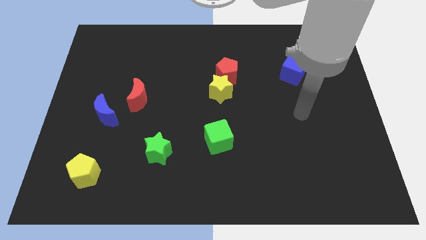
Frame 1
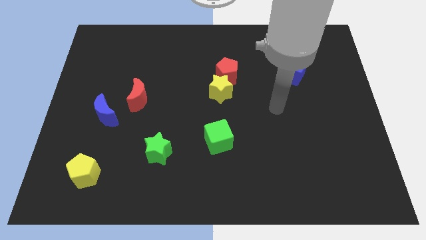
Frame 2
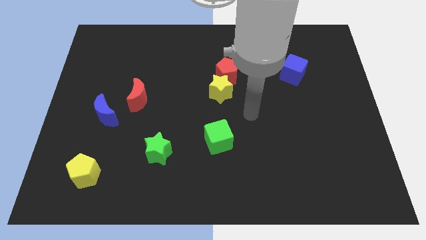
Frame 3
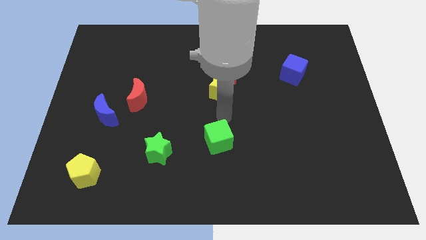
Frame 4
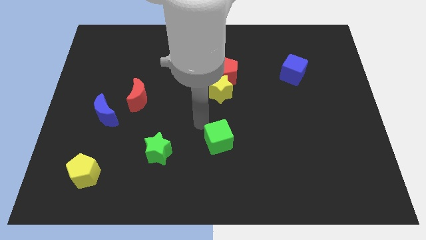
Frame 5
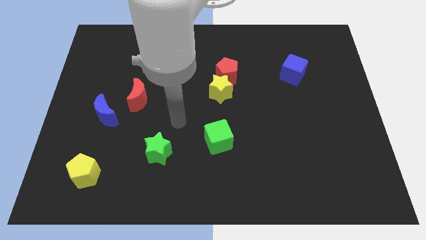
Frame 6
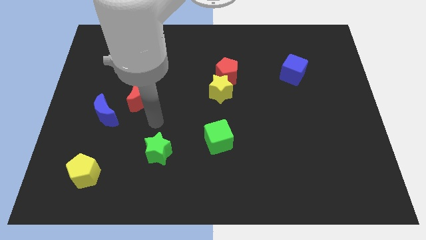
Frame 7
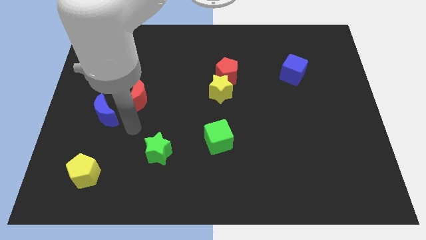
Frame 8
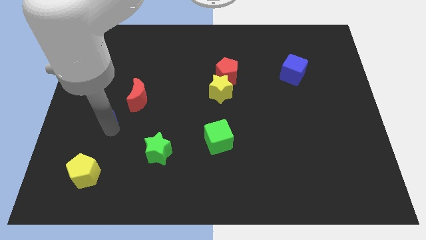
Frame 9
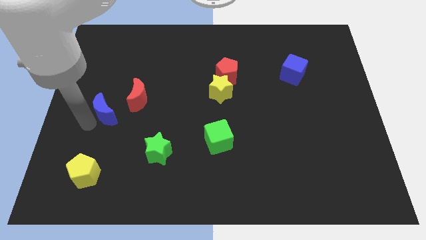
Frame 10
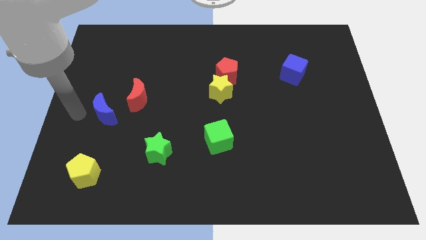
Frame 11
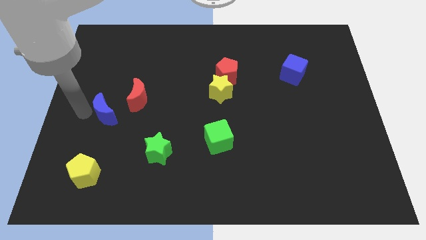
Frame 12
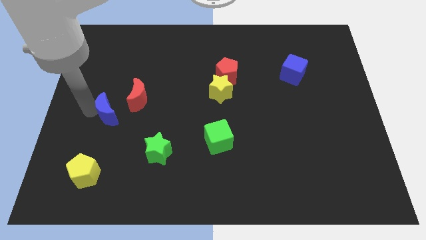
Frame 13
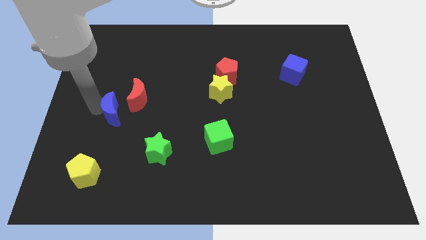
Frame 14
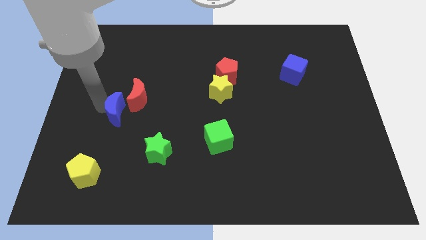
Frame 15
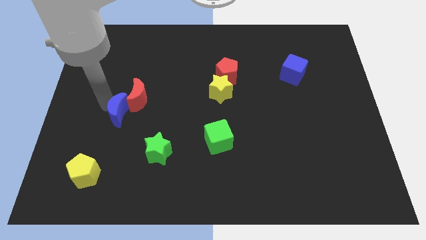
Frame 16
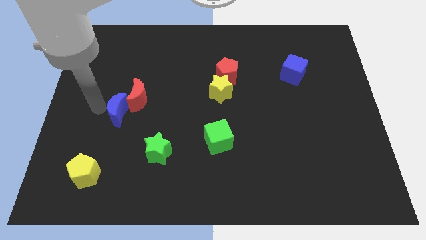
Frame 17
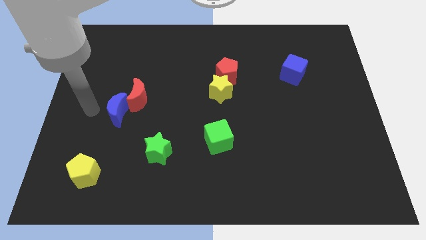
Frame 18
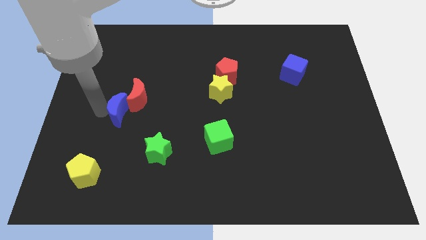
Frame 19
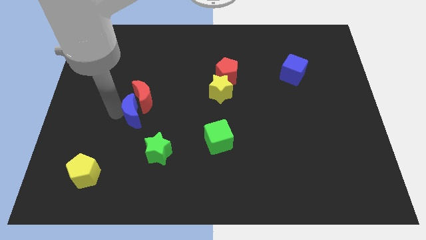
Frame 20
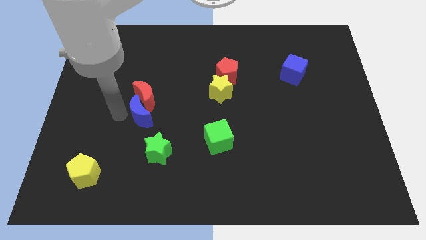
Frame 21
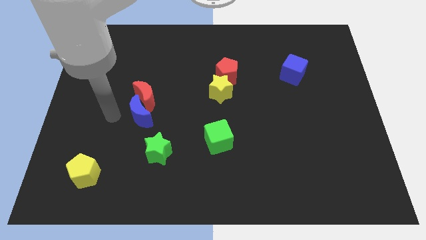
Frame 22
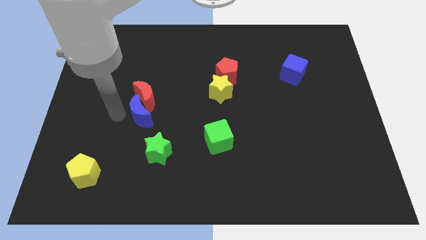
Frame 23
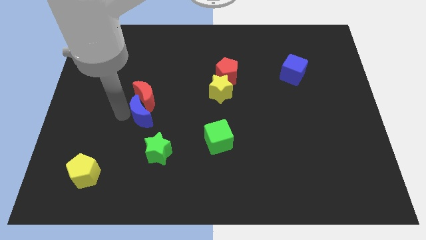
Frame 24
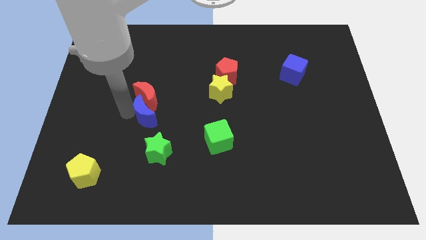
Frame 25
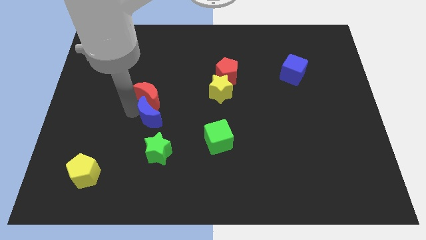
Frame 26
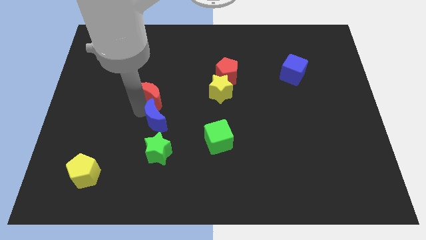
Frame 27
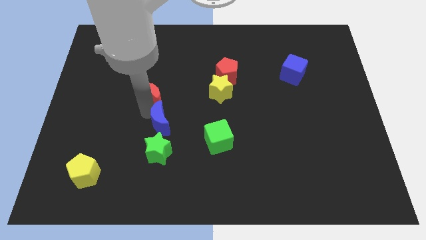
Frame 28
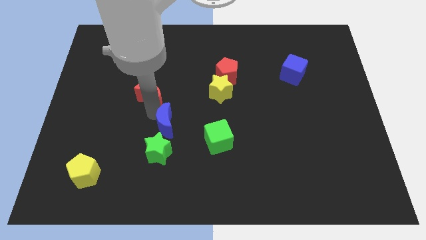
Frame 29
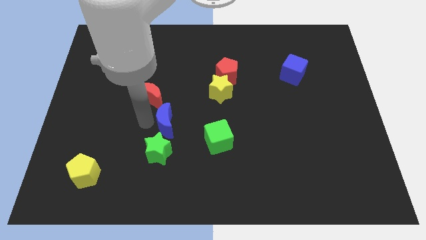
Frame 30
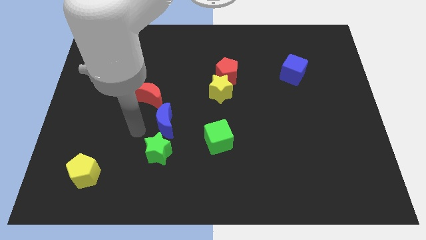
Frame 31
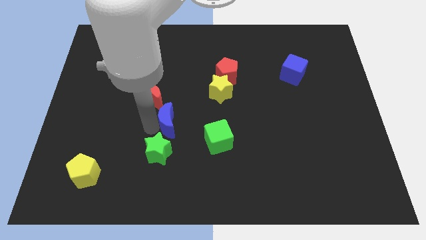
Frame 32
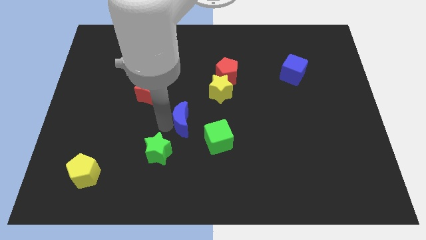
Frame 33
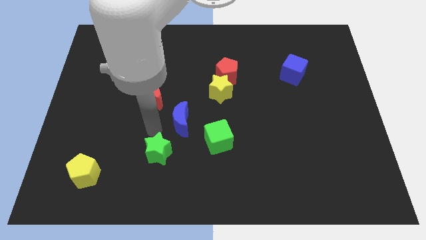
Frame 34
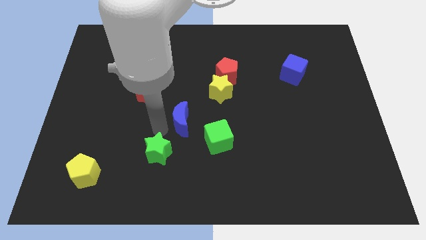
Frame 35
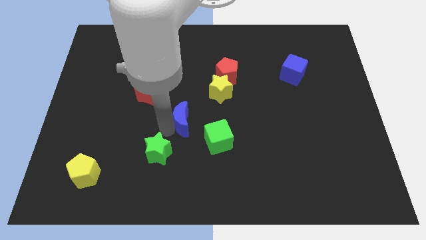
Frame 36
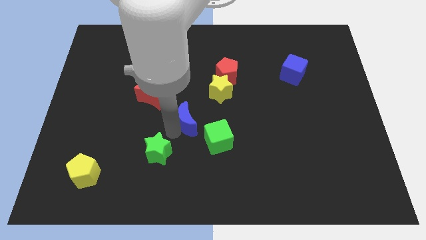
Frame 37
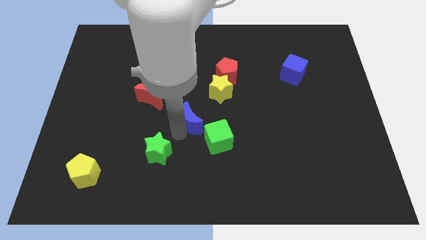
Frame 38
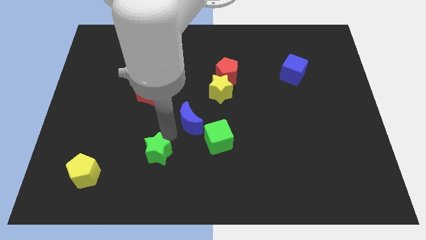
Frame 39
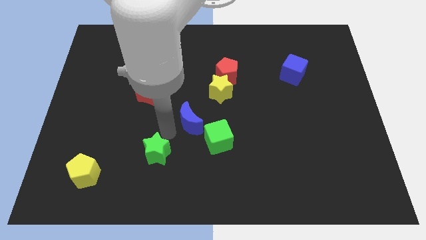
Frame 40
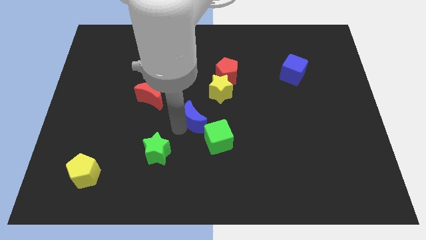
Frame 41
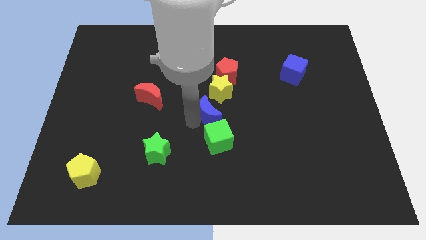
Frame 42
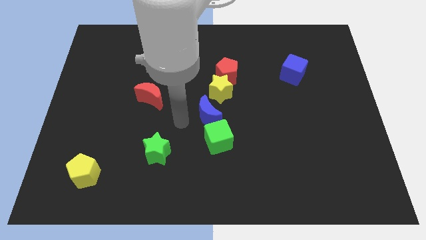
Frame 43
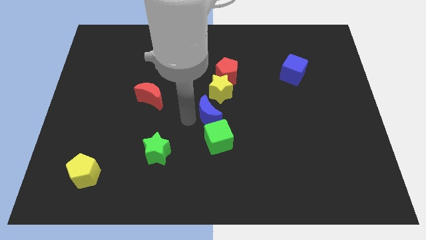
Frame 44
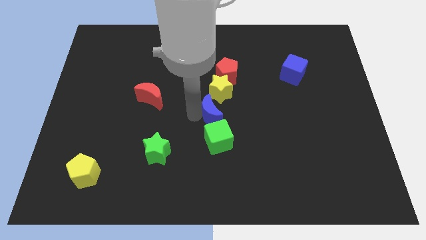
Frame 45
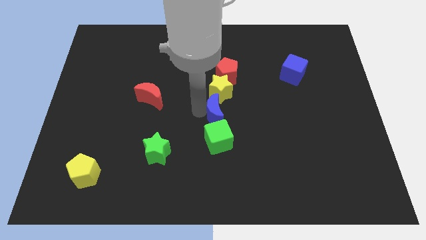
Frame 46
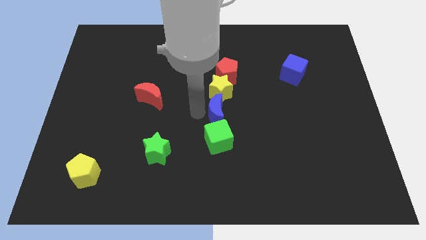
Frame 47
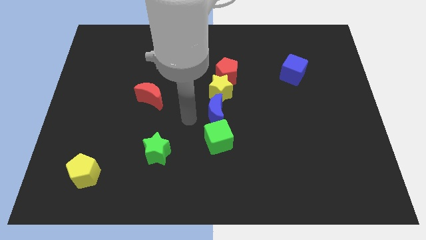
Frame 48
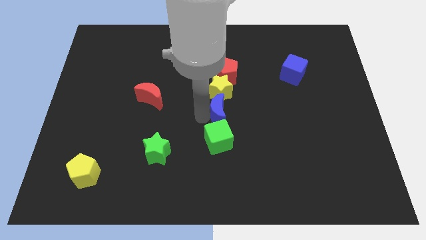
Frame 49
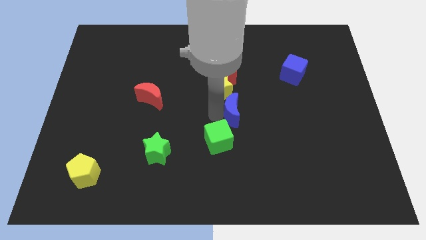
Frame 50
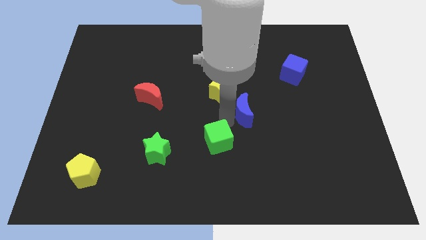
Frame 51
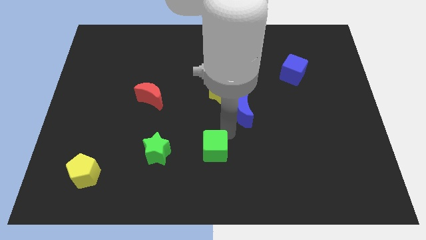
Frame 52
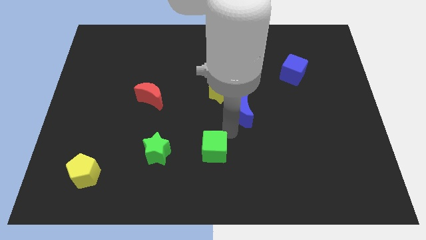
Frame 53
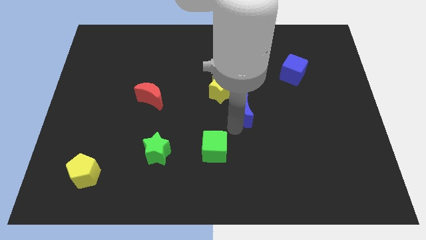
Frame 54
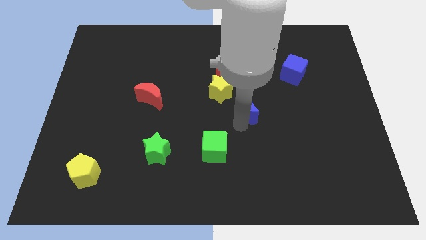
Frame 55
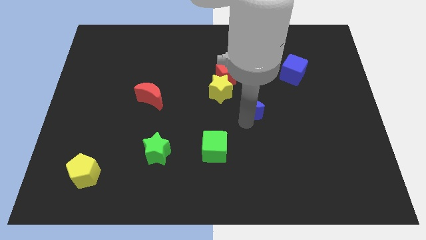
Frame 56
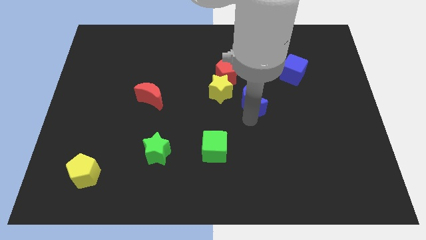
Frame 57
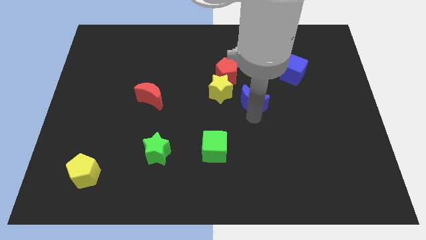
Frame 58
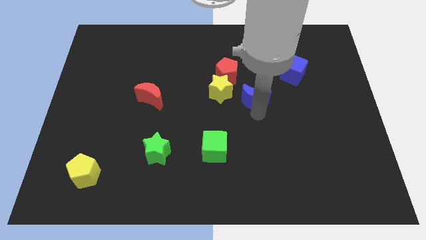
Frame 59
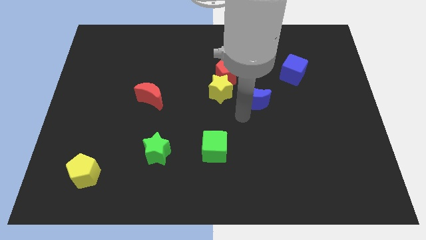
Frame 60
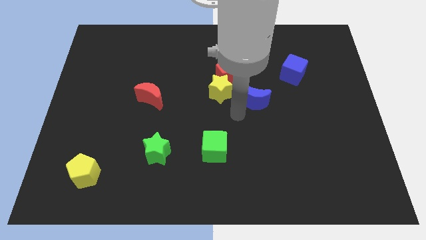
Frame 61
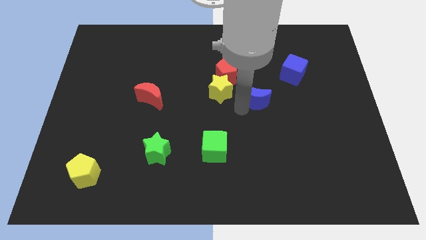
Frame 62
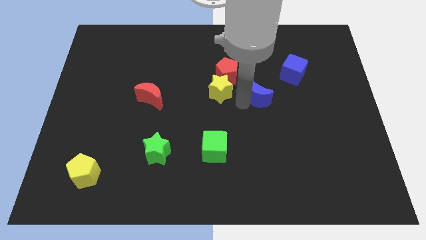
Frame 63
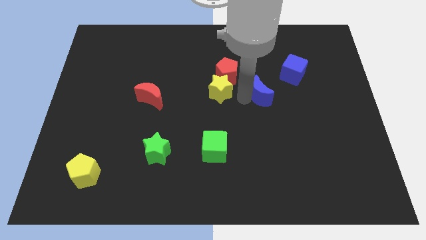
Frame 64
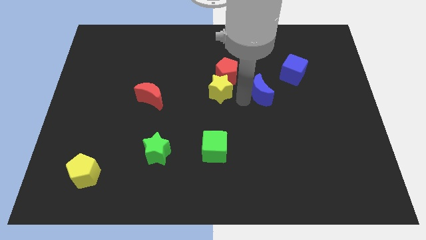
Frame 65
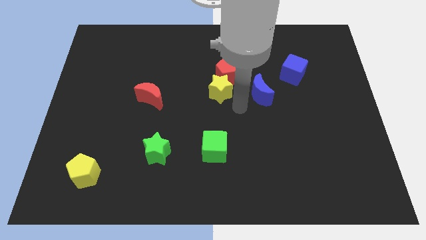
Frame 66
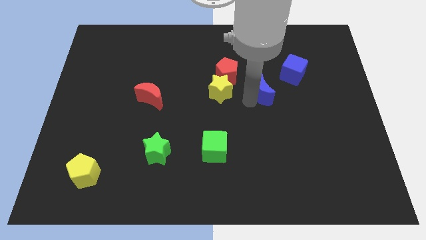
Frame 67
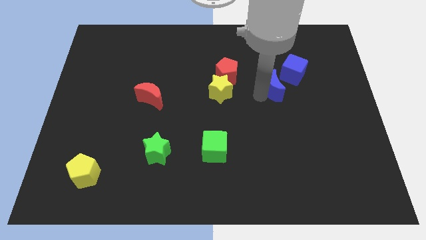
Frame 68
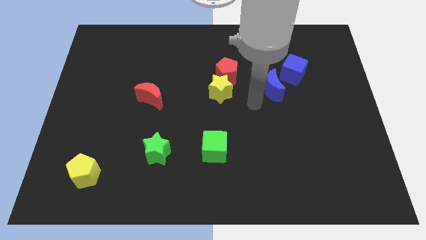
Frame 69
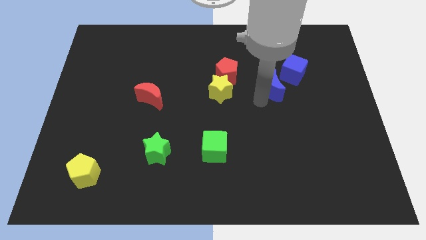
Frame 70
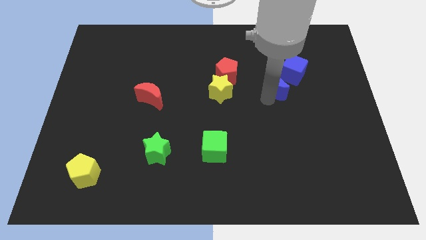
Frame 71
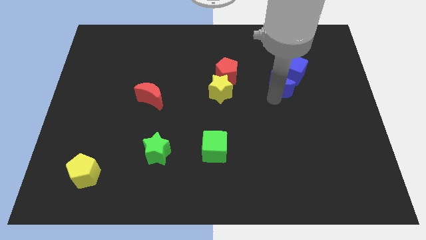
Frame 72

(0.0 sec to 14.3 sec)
put the blue moon next to the blue cube

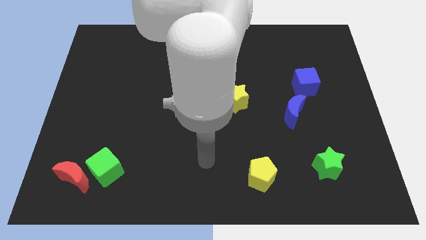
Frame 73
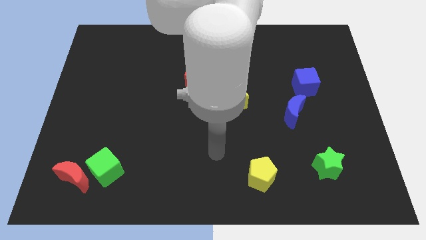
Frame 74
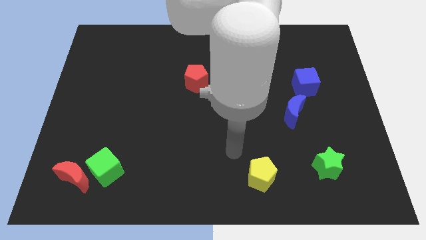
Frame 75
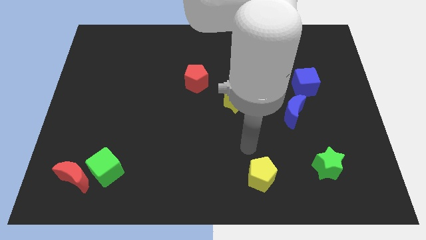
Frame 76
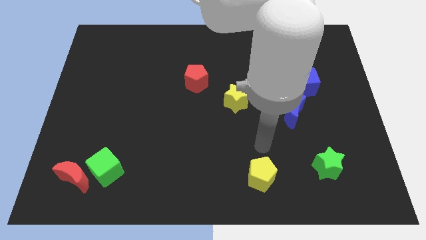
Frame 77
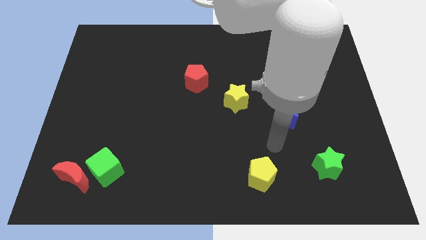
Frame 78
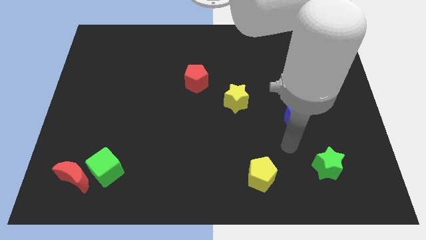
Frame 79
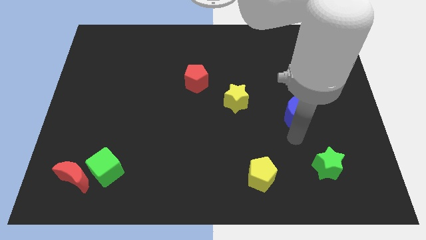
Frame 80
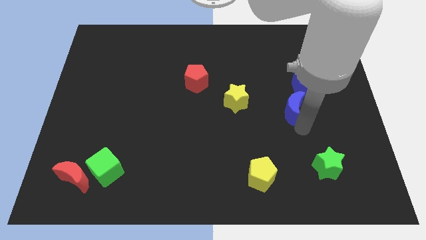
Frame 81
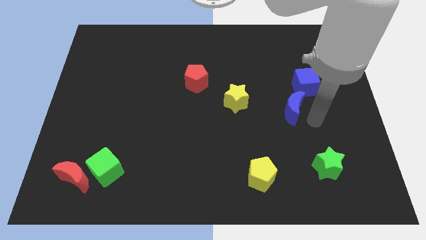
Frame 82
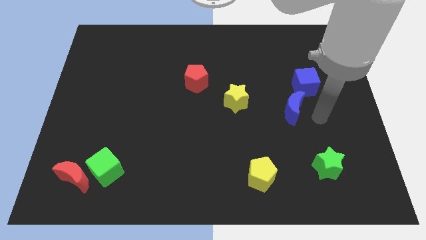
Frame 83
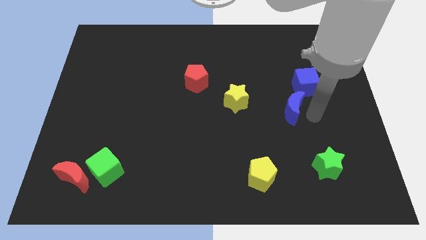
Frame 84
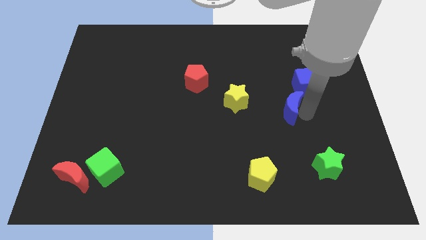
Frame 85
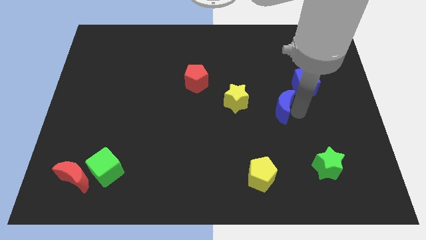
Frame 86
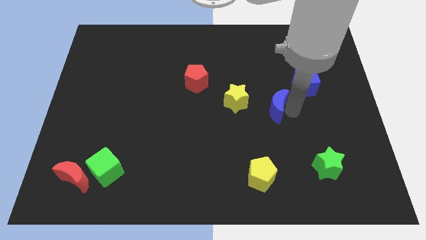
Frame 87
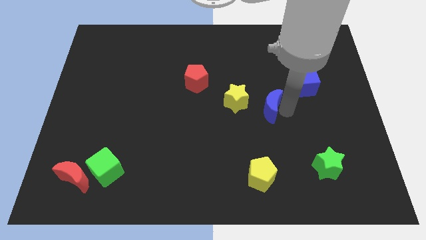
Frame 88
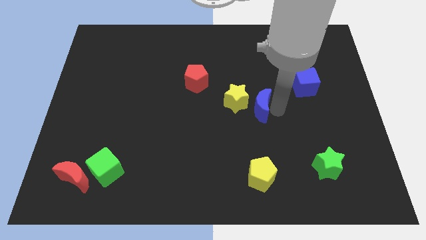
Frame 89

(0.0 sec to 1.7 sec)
put the blue moon close to the yellow star
